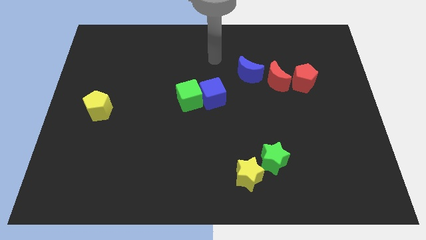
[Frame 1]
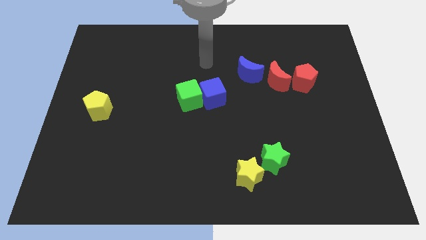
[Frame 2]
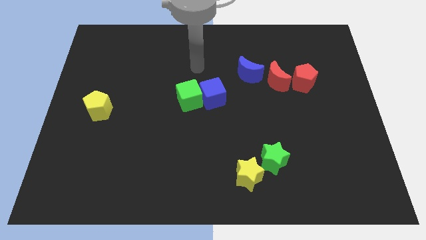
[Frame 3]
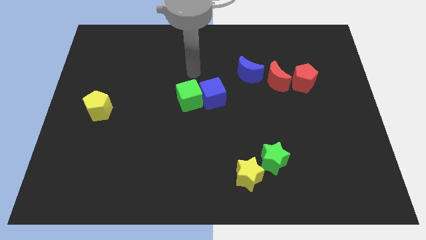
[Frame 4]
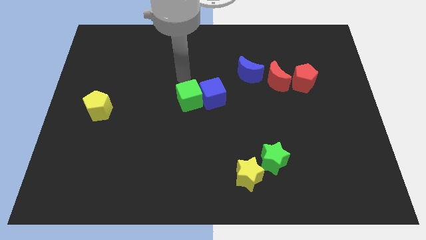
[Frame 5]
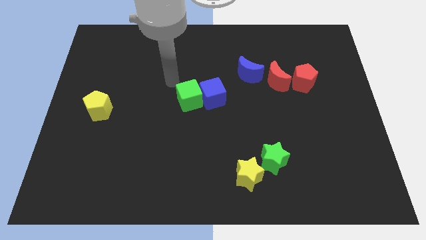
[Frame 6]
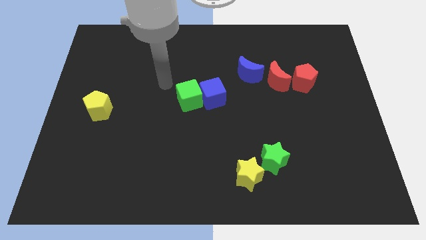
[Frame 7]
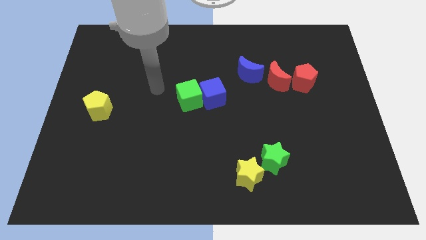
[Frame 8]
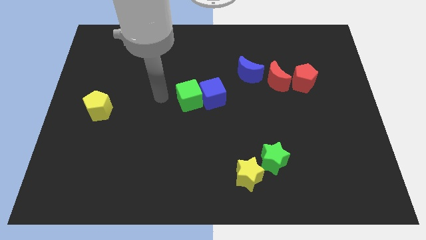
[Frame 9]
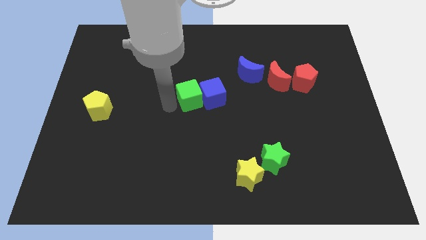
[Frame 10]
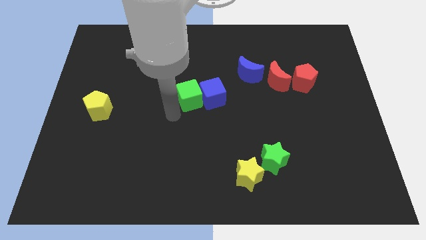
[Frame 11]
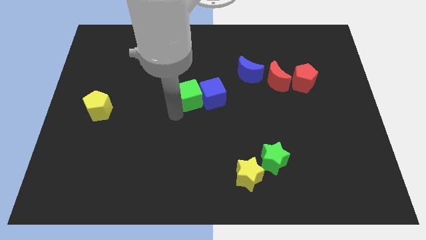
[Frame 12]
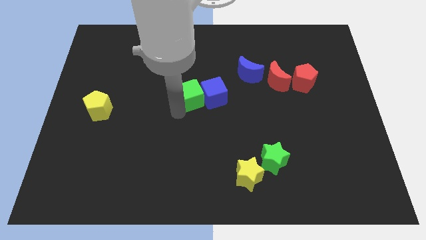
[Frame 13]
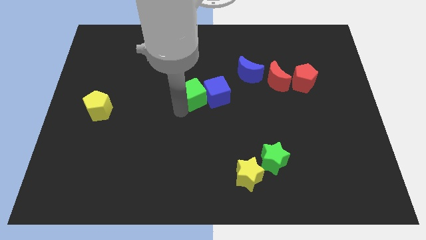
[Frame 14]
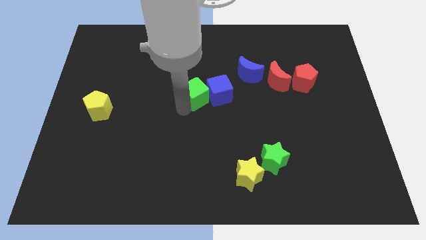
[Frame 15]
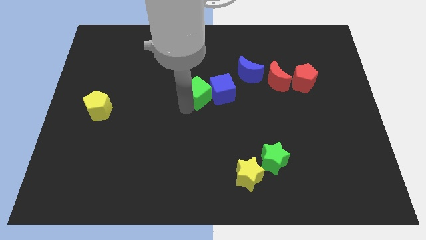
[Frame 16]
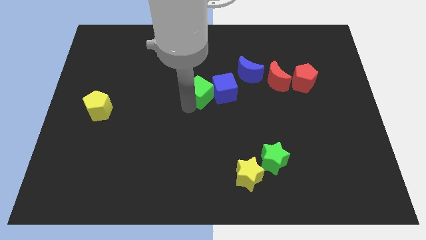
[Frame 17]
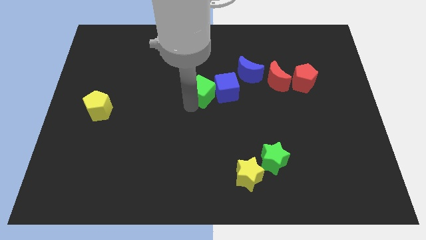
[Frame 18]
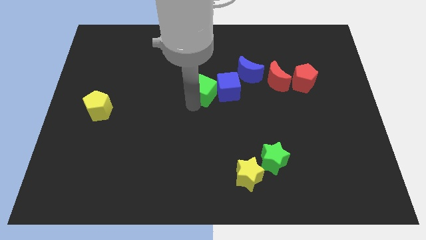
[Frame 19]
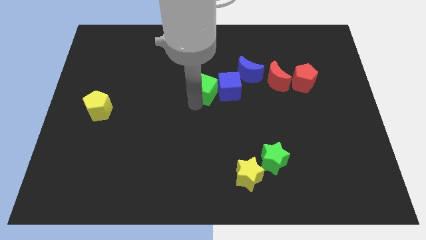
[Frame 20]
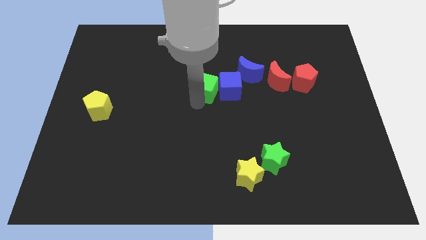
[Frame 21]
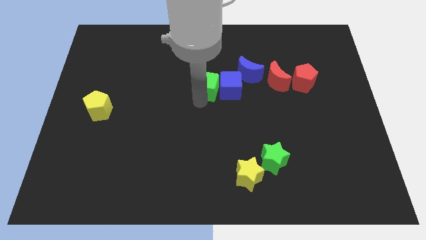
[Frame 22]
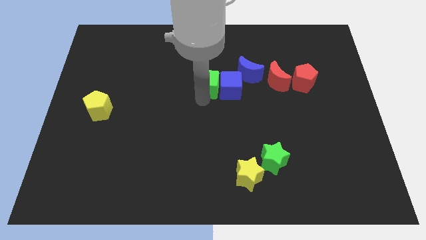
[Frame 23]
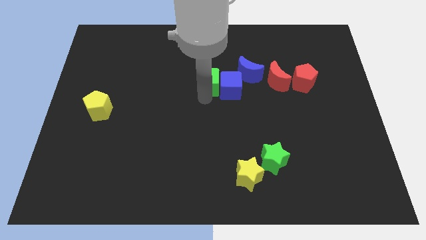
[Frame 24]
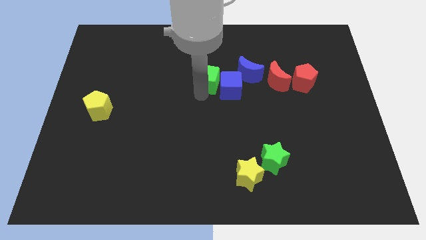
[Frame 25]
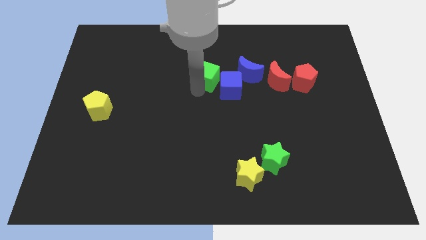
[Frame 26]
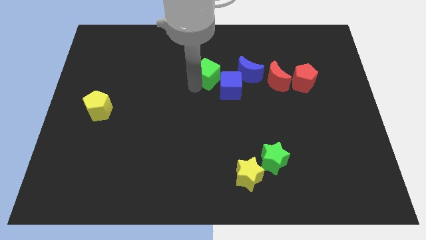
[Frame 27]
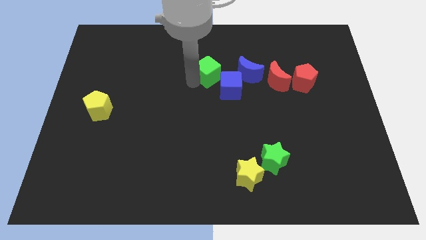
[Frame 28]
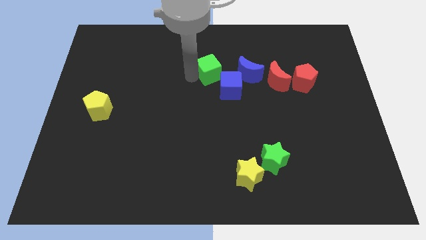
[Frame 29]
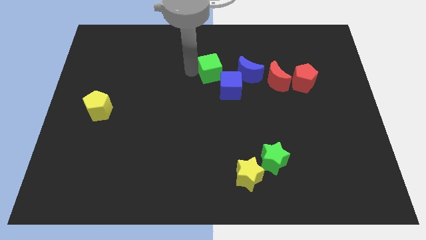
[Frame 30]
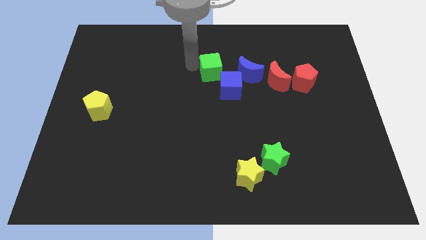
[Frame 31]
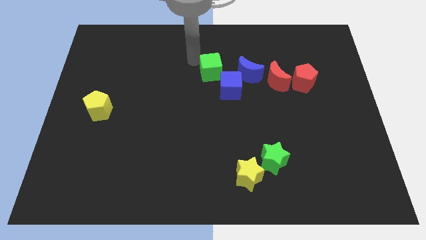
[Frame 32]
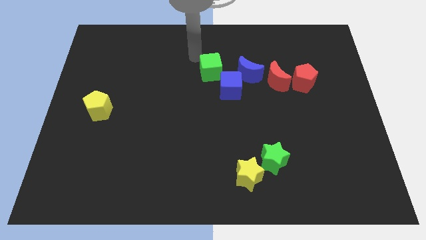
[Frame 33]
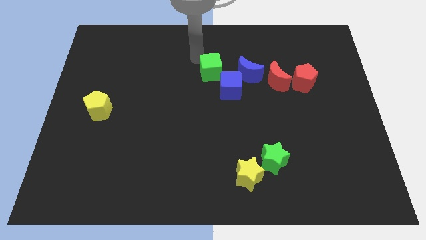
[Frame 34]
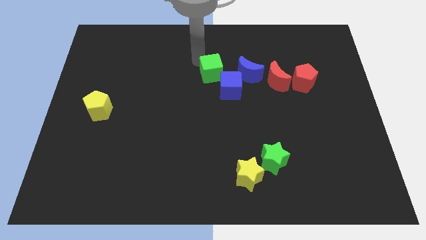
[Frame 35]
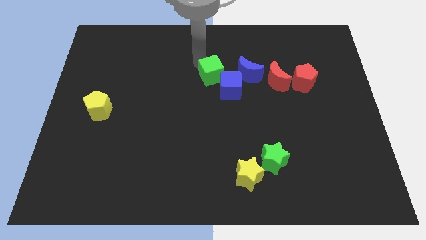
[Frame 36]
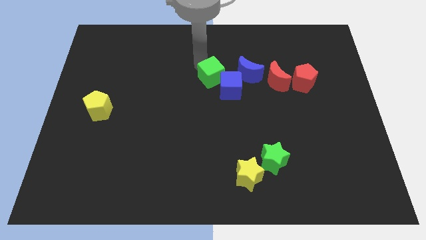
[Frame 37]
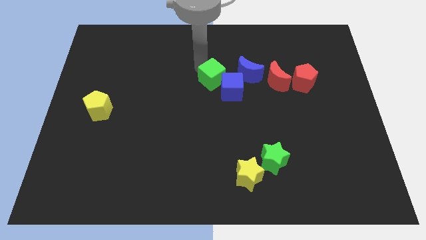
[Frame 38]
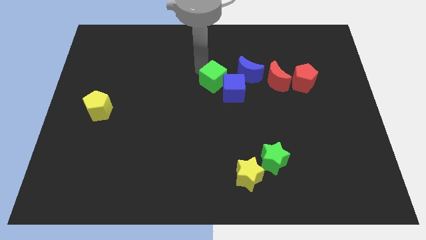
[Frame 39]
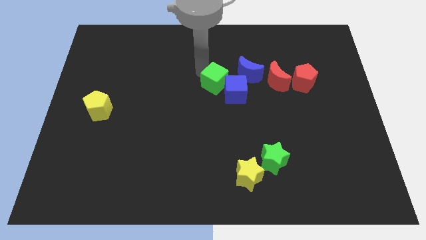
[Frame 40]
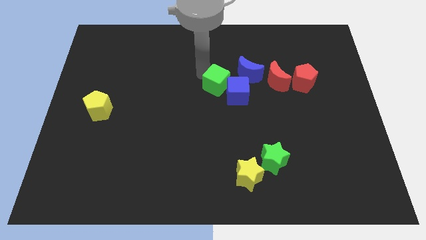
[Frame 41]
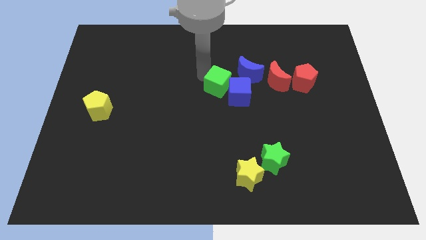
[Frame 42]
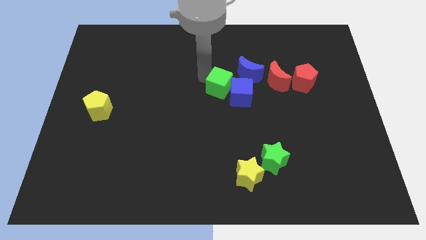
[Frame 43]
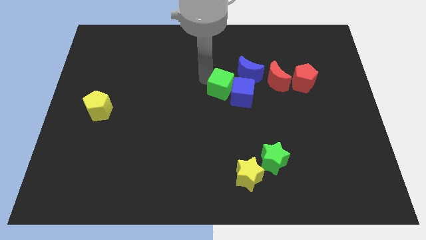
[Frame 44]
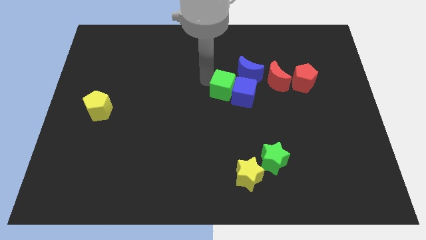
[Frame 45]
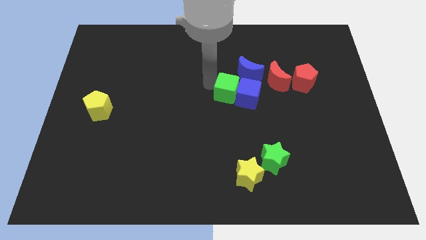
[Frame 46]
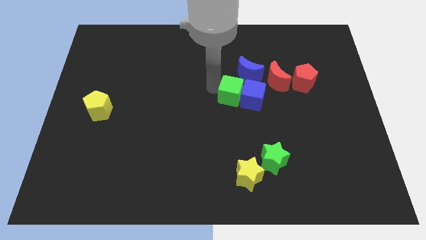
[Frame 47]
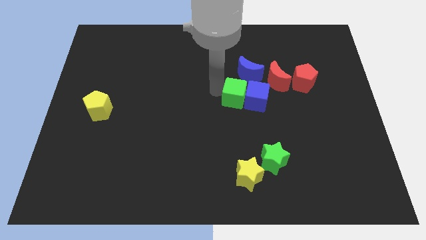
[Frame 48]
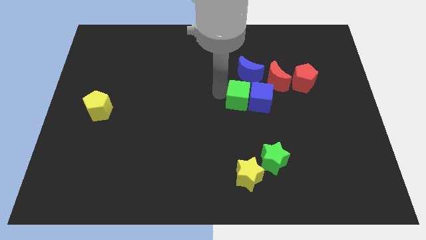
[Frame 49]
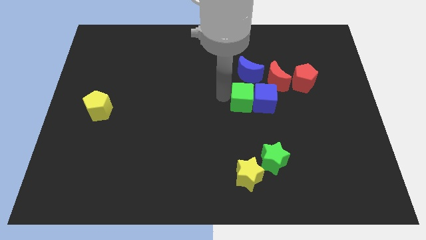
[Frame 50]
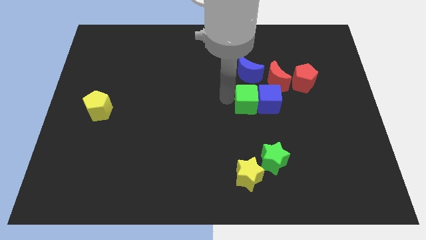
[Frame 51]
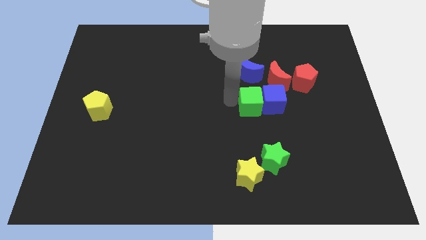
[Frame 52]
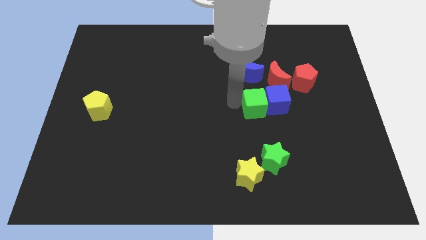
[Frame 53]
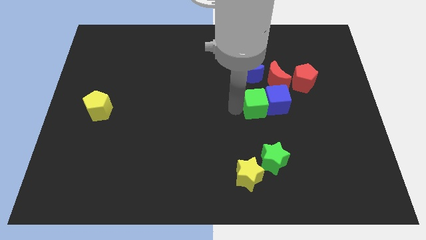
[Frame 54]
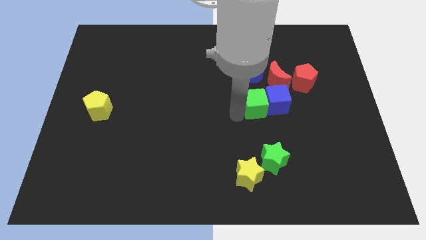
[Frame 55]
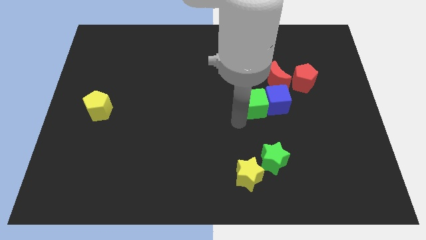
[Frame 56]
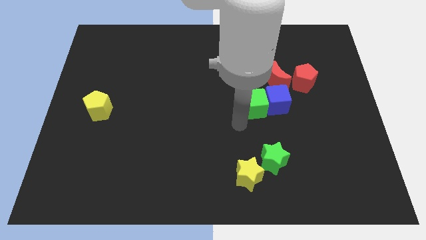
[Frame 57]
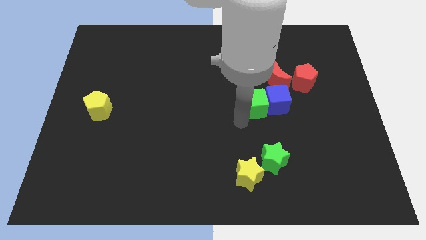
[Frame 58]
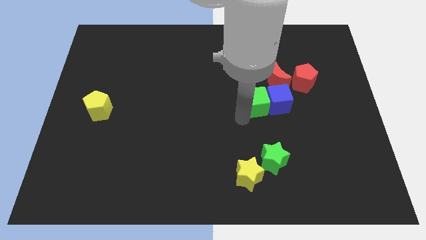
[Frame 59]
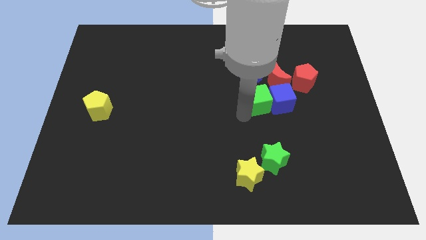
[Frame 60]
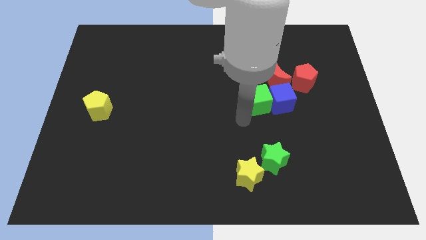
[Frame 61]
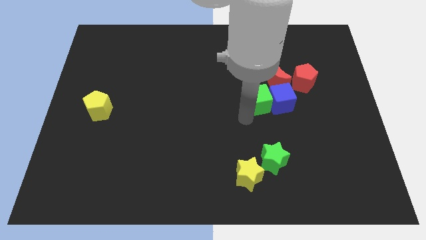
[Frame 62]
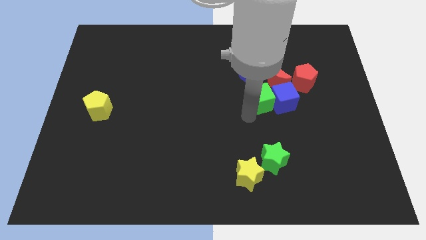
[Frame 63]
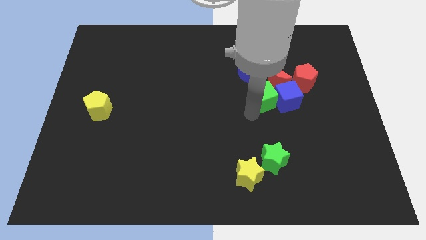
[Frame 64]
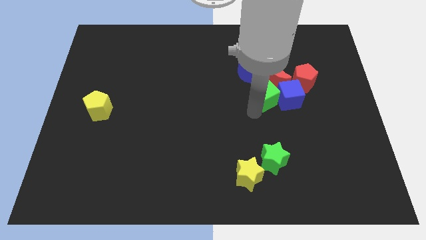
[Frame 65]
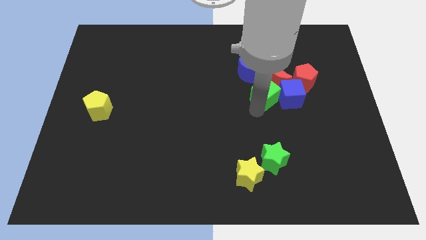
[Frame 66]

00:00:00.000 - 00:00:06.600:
move the green cube to the red moon
